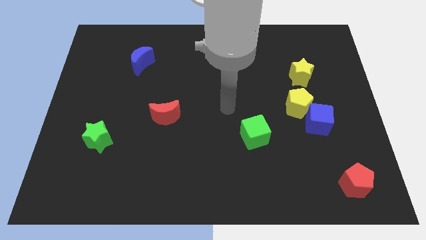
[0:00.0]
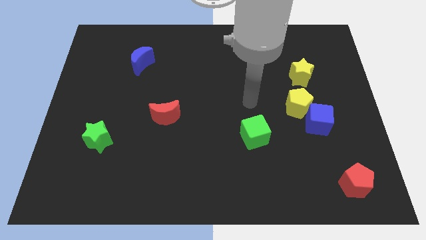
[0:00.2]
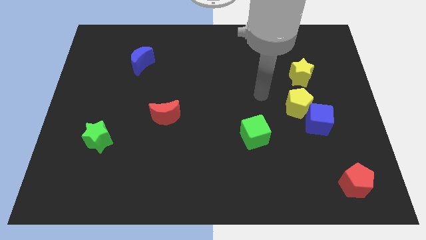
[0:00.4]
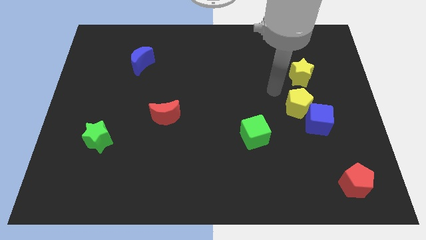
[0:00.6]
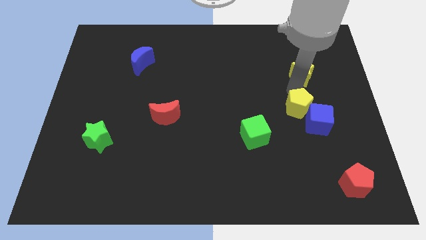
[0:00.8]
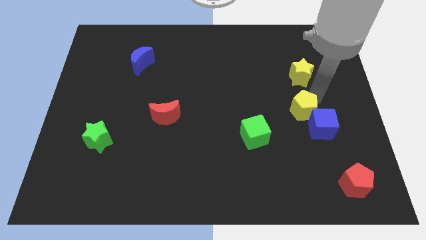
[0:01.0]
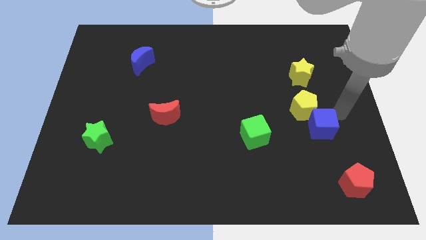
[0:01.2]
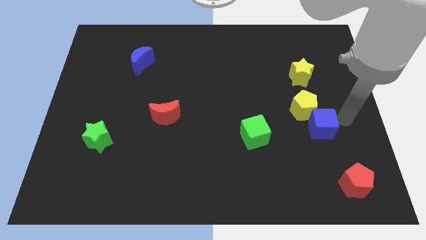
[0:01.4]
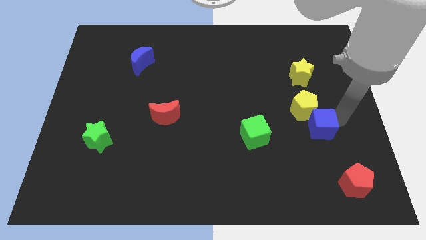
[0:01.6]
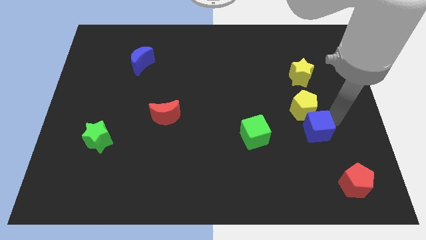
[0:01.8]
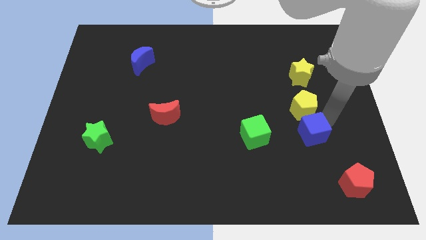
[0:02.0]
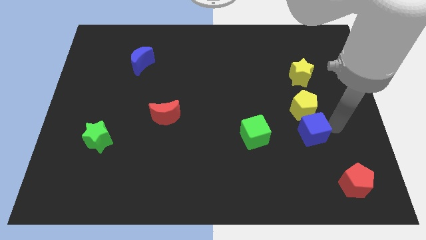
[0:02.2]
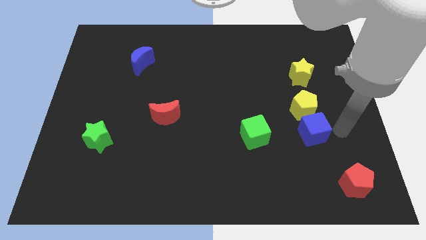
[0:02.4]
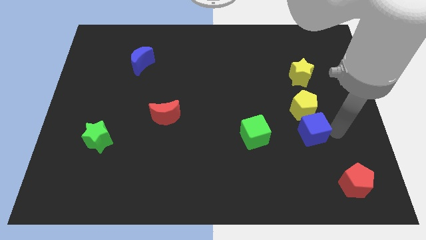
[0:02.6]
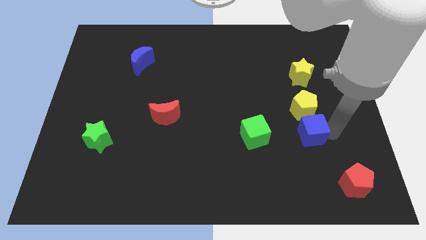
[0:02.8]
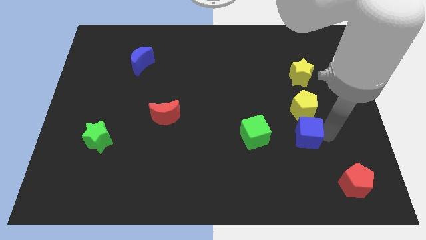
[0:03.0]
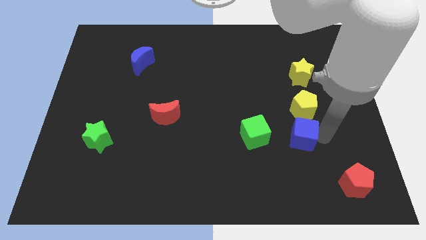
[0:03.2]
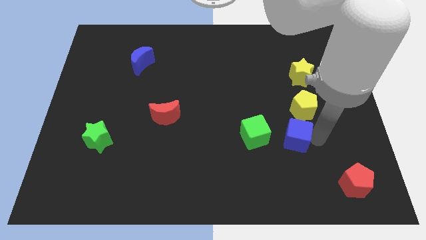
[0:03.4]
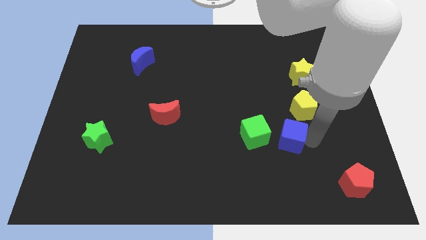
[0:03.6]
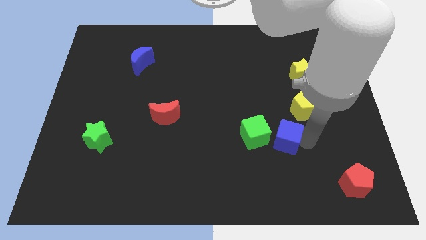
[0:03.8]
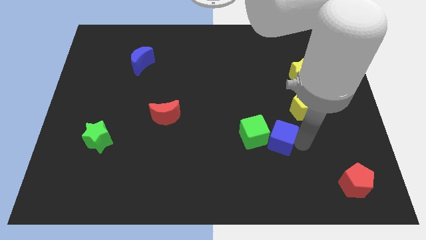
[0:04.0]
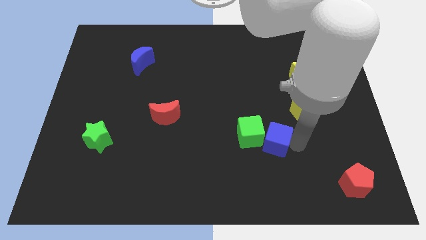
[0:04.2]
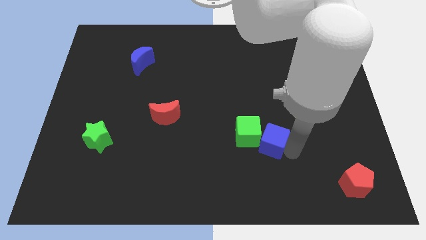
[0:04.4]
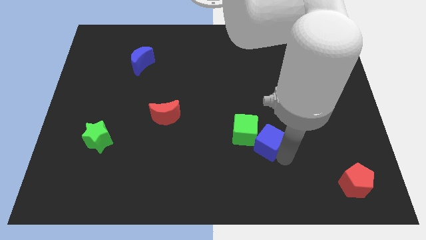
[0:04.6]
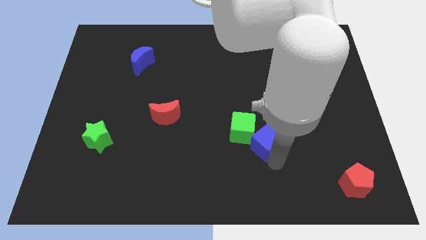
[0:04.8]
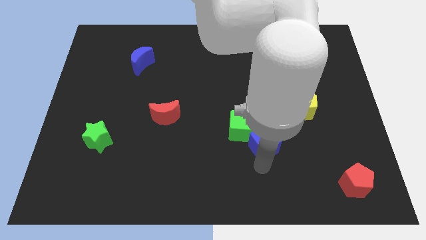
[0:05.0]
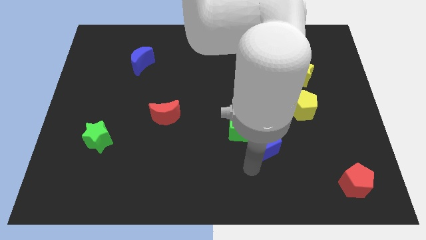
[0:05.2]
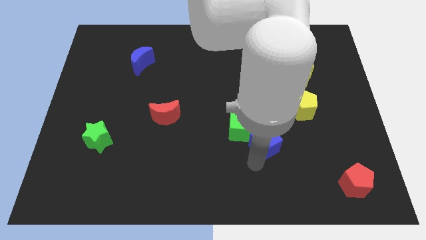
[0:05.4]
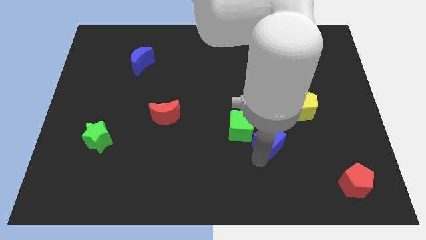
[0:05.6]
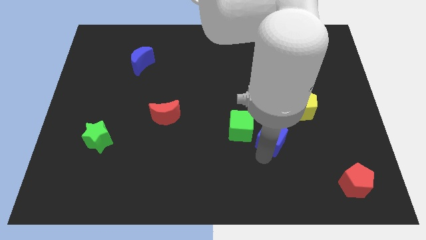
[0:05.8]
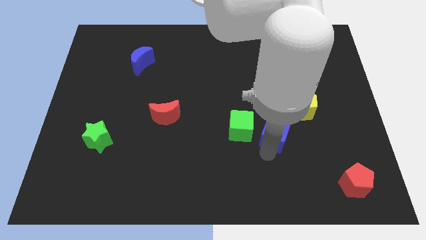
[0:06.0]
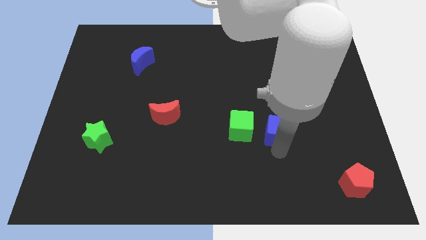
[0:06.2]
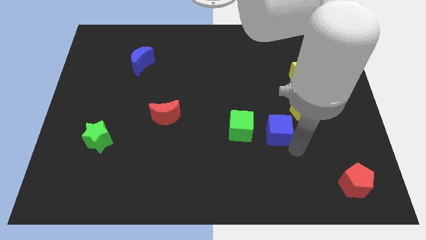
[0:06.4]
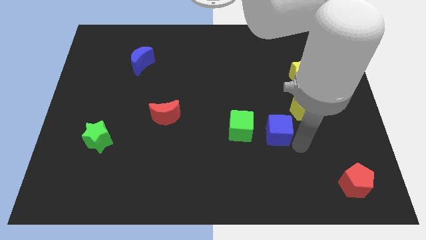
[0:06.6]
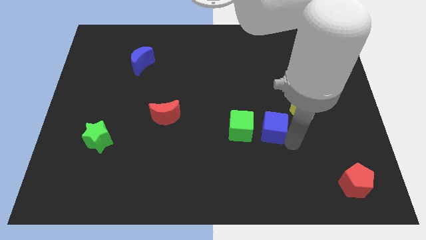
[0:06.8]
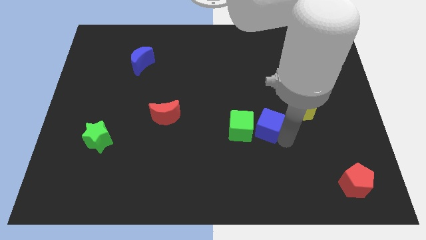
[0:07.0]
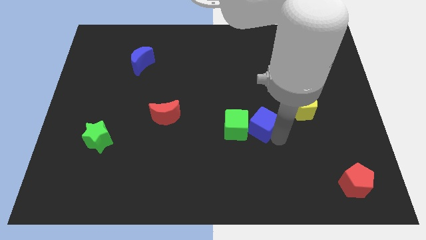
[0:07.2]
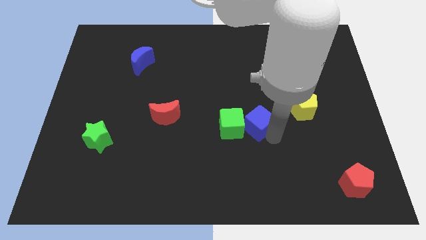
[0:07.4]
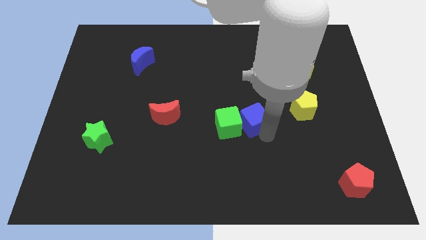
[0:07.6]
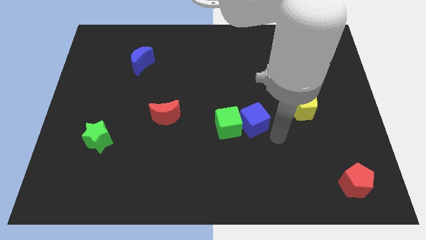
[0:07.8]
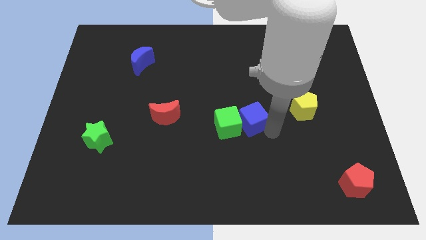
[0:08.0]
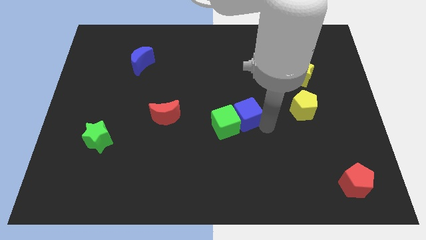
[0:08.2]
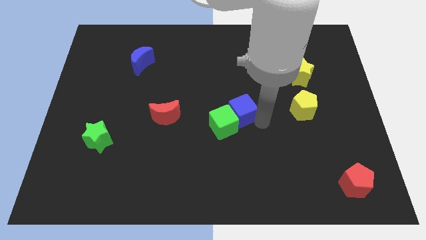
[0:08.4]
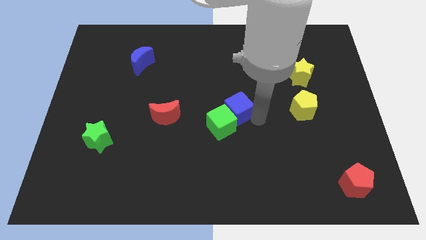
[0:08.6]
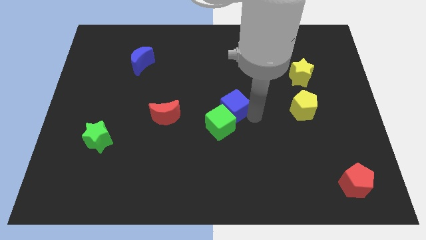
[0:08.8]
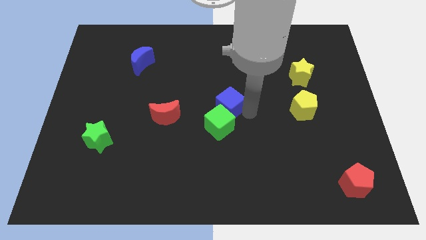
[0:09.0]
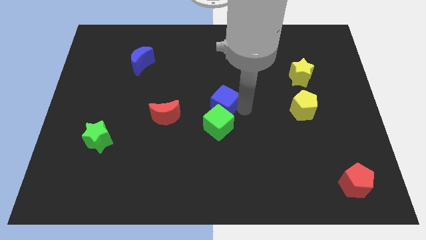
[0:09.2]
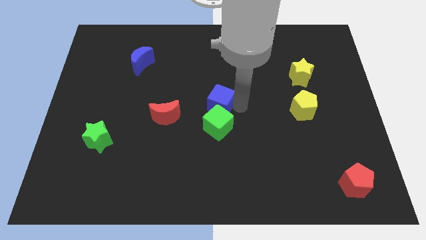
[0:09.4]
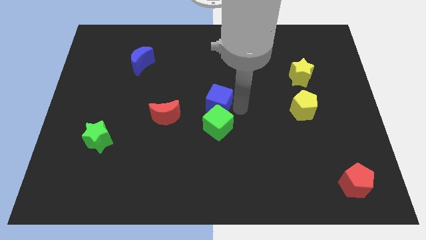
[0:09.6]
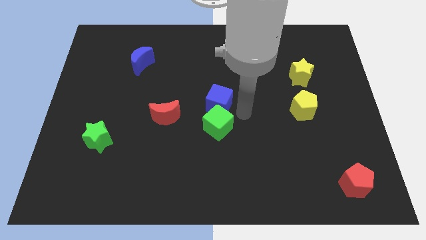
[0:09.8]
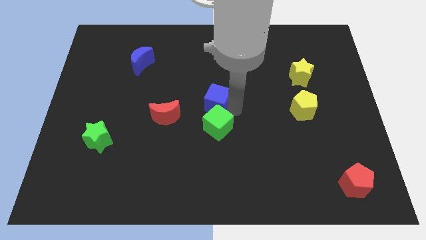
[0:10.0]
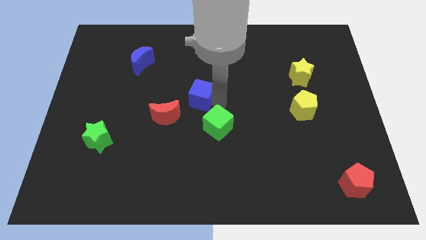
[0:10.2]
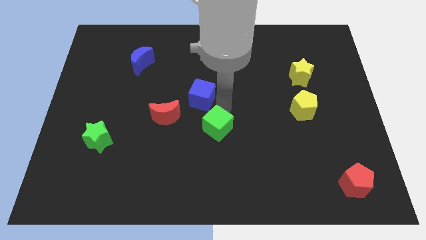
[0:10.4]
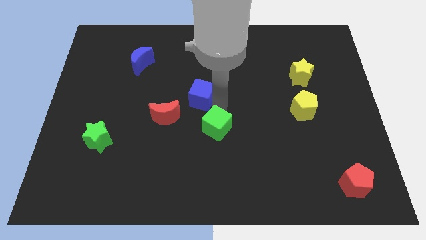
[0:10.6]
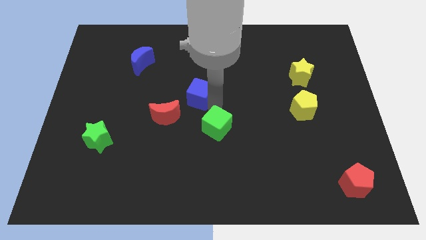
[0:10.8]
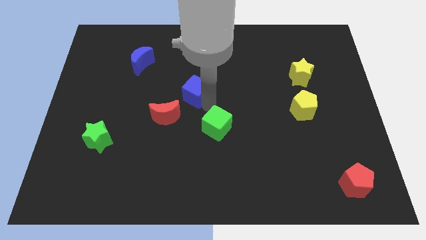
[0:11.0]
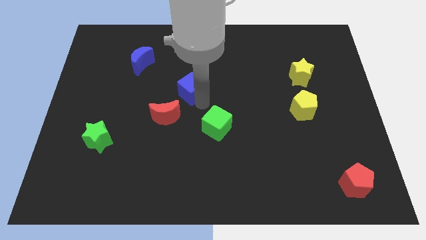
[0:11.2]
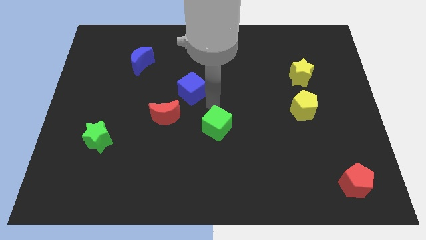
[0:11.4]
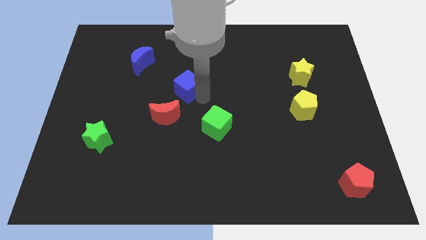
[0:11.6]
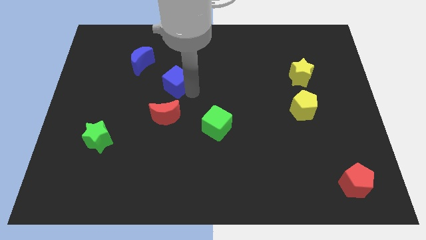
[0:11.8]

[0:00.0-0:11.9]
slide the blue cube to the bottom right side of the blue moon
